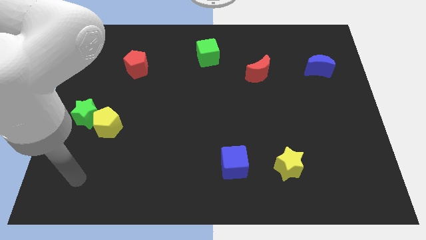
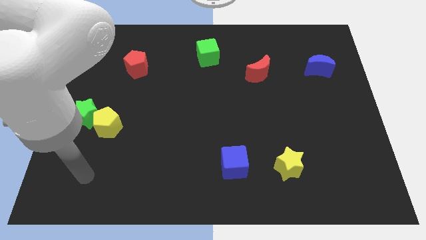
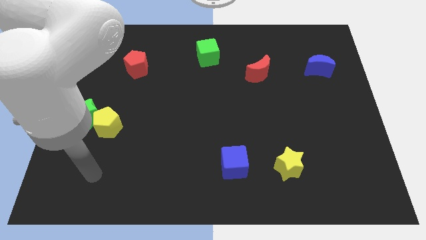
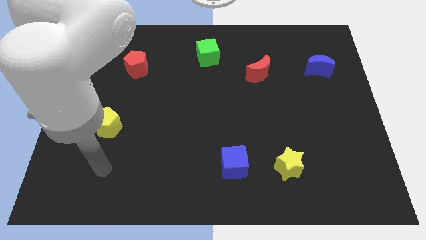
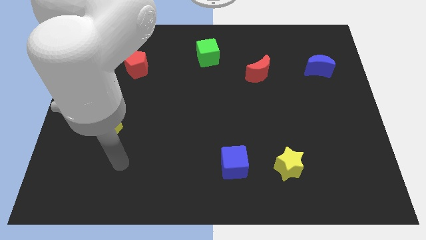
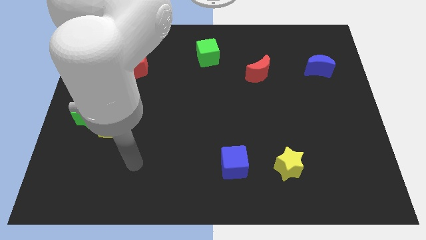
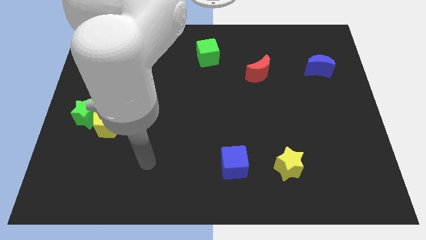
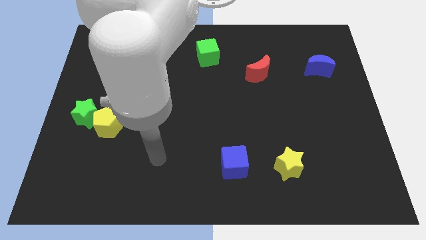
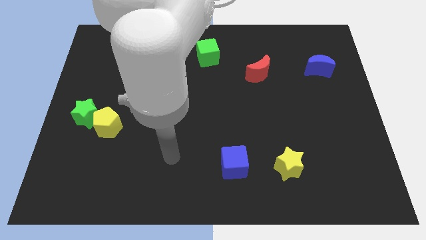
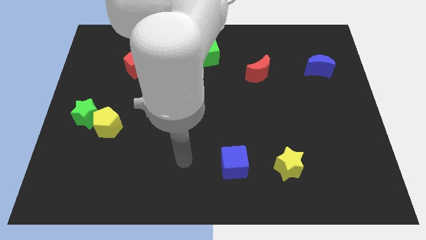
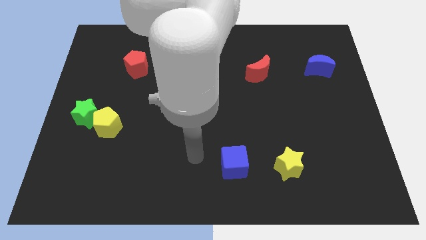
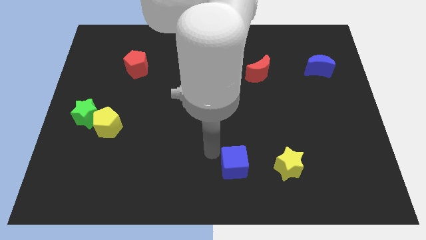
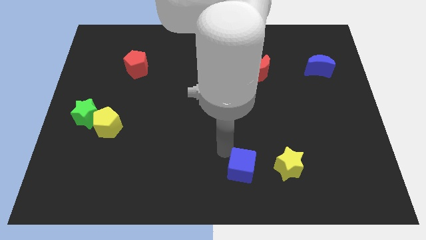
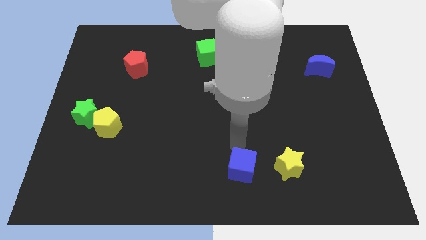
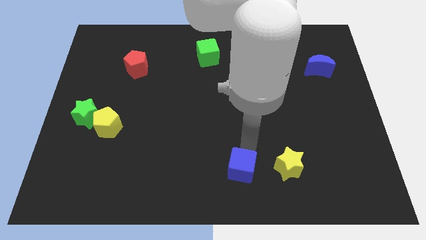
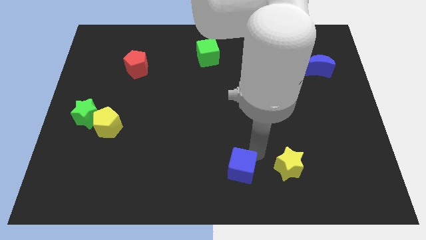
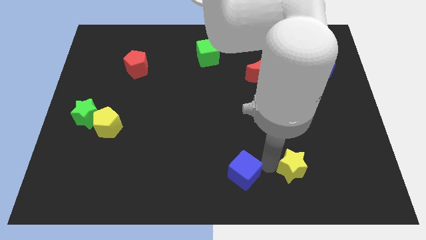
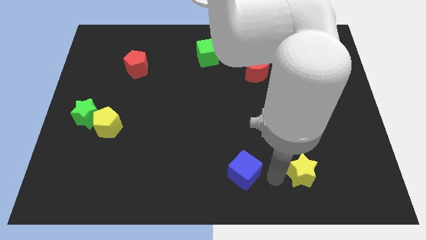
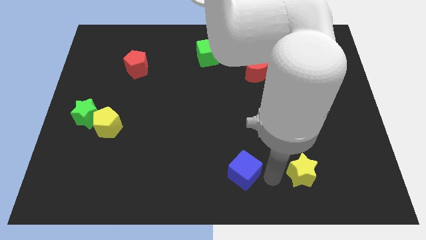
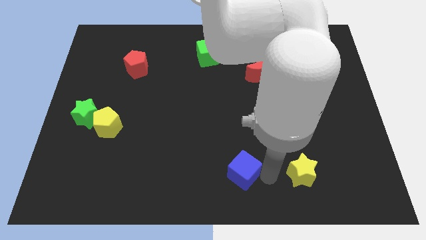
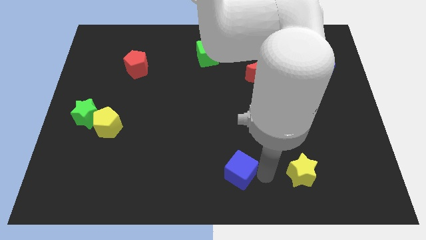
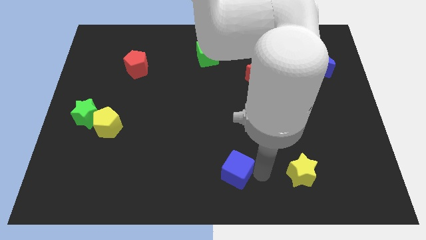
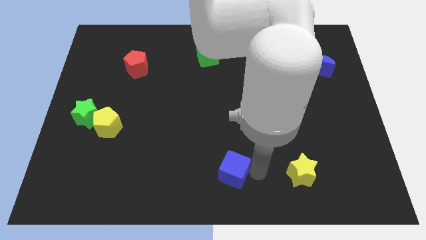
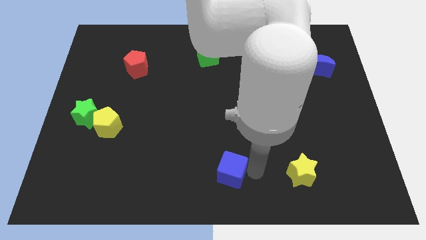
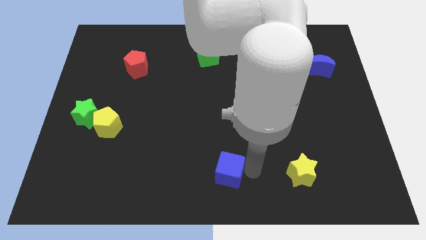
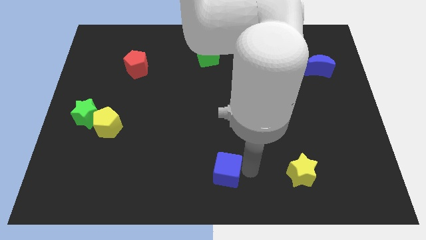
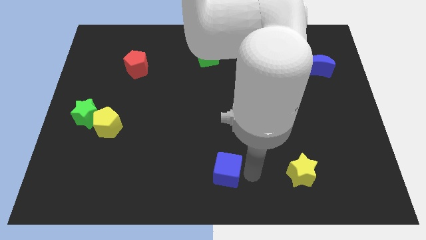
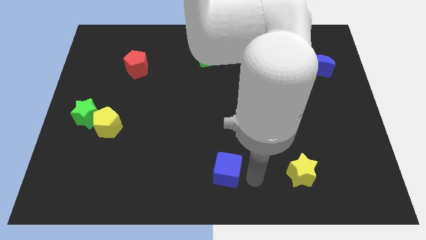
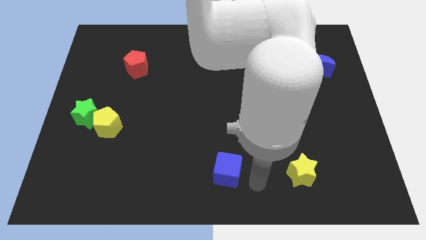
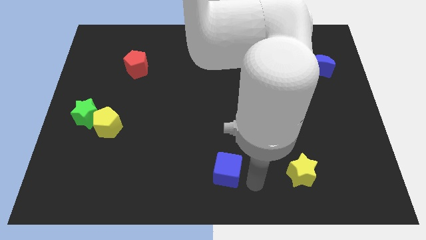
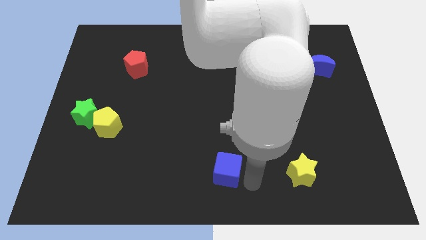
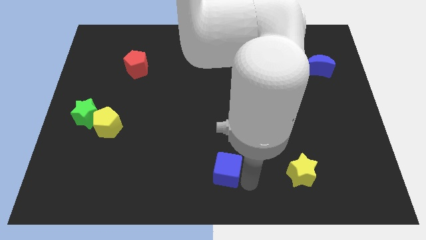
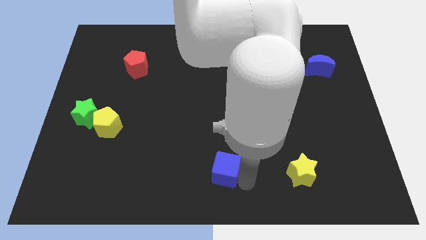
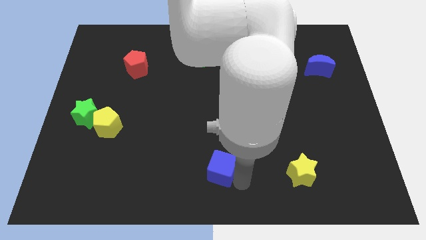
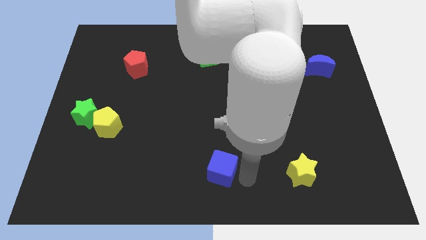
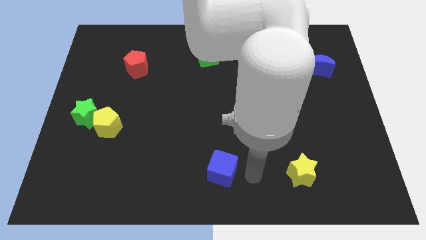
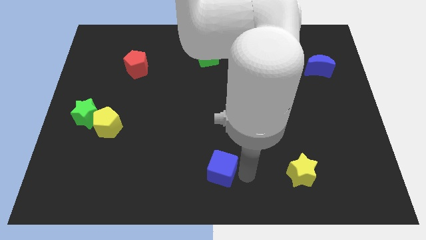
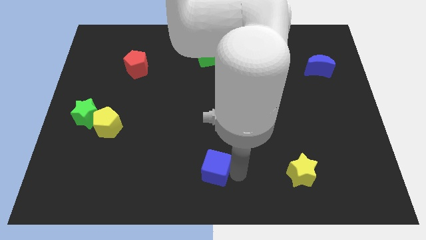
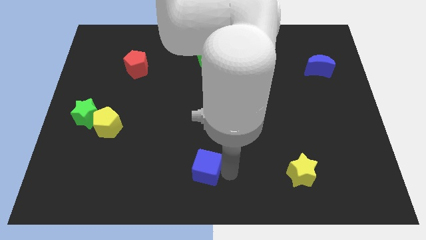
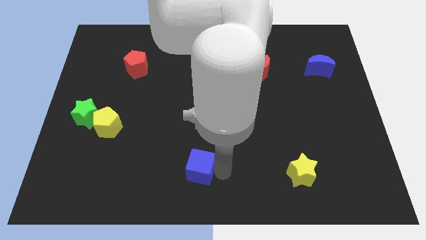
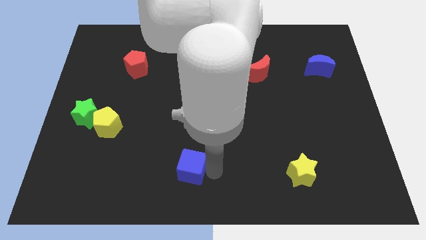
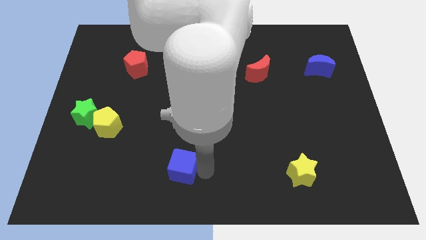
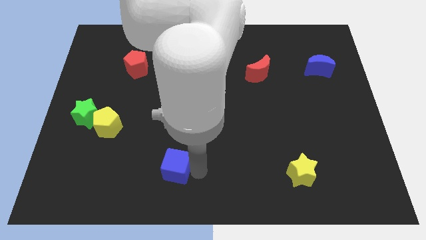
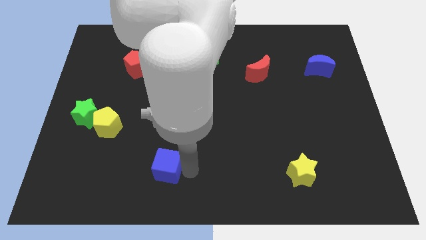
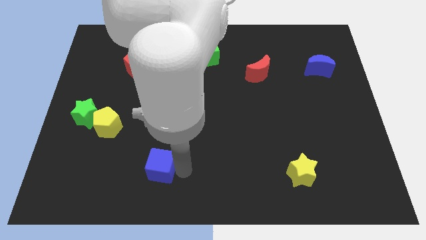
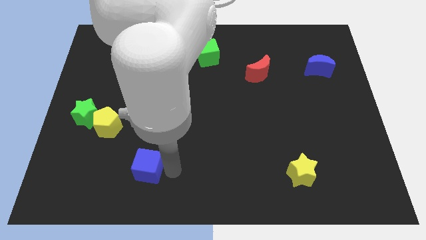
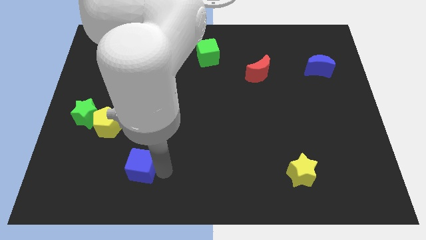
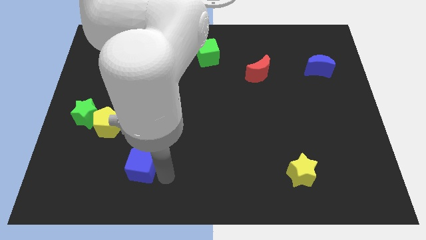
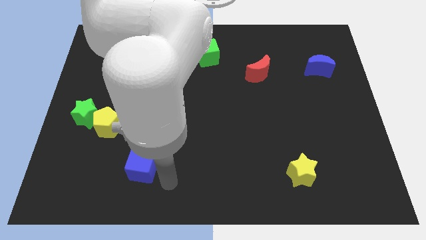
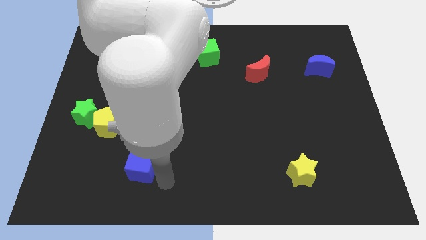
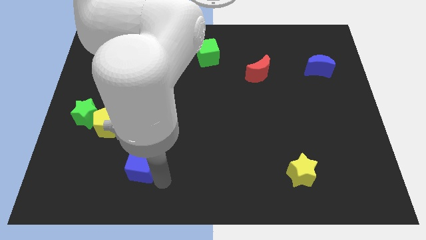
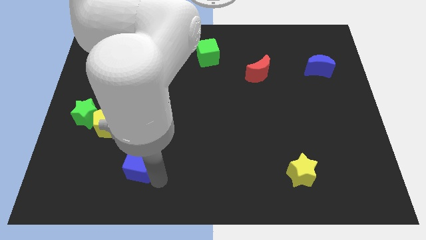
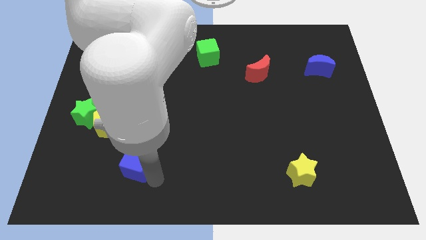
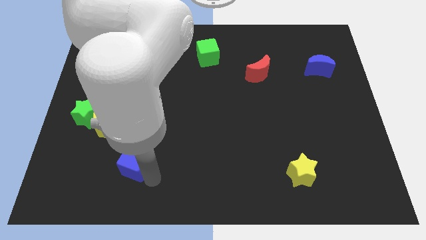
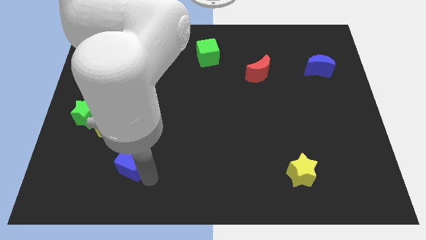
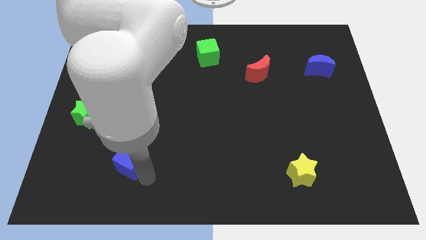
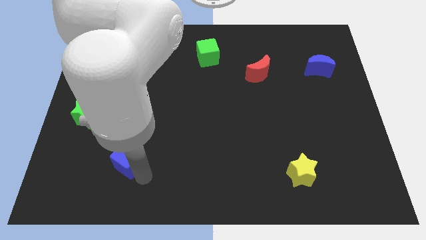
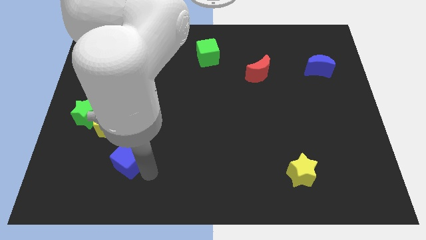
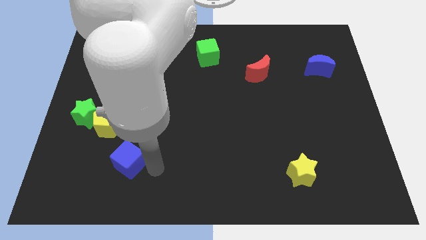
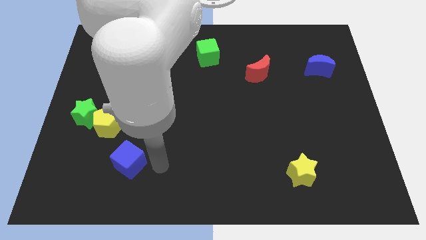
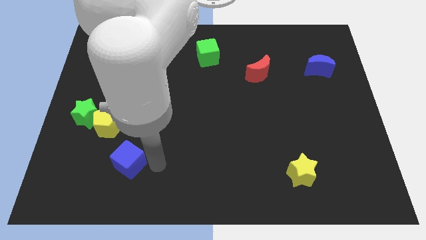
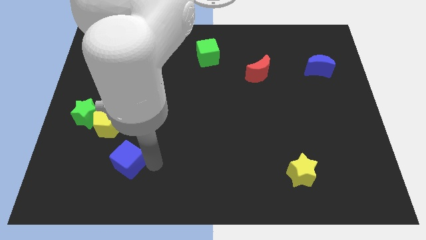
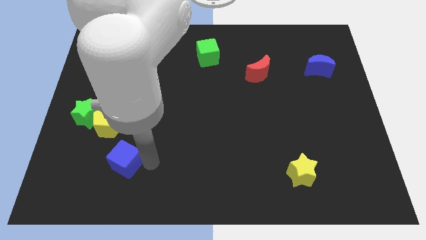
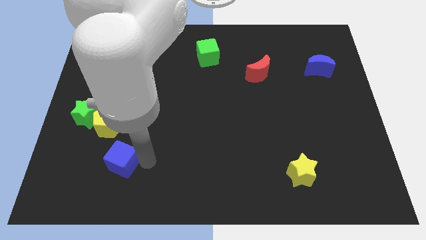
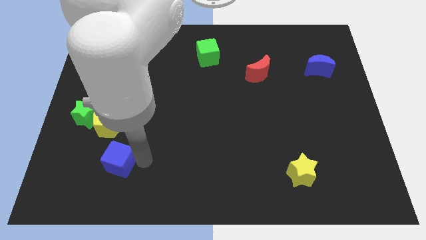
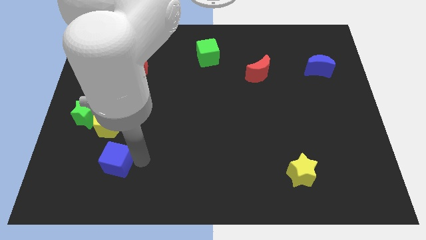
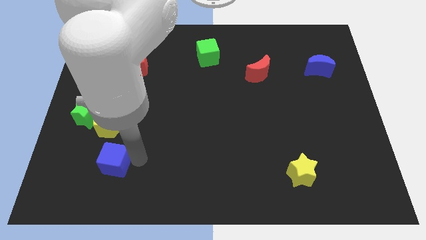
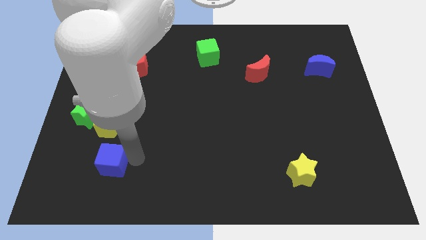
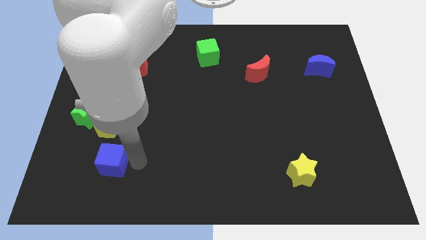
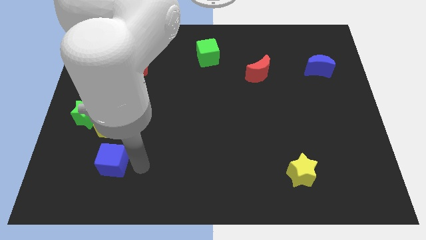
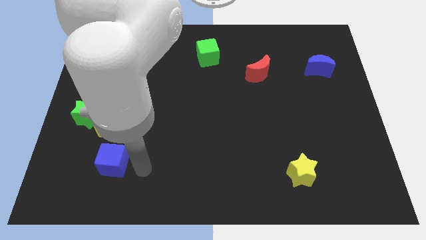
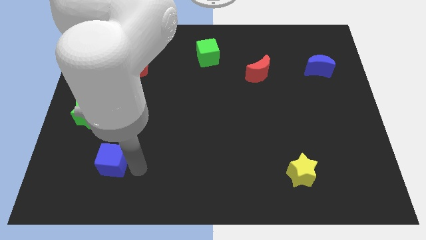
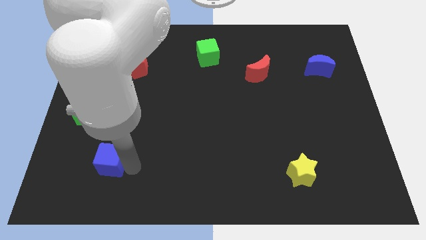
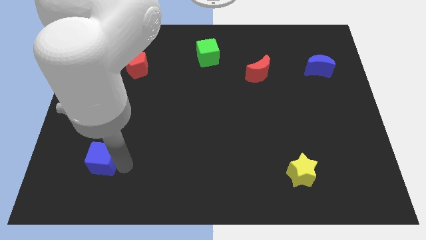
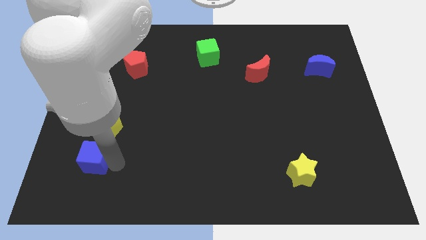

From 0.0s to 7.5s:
move the blue cube to the bottom of the green star

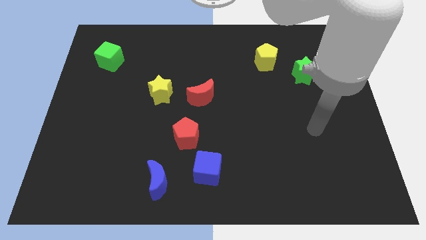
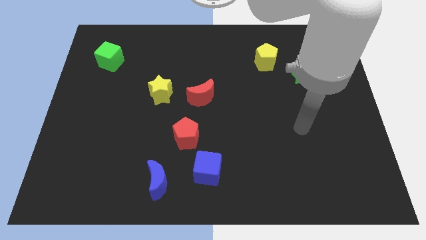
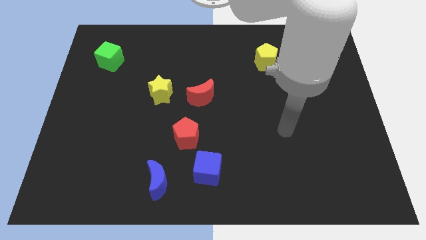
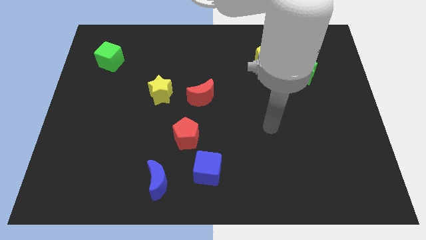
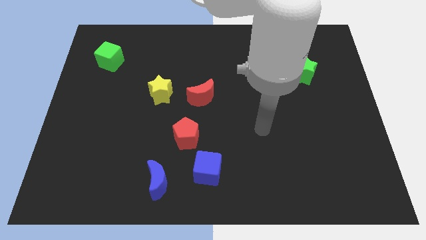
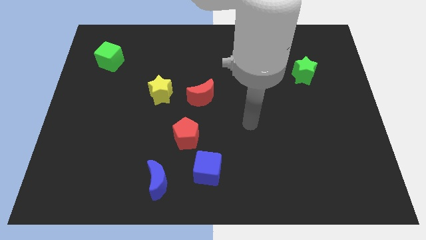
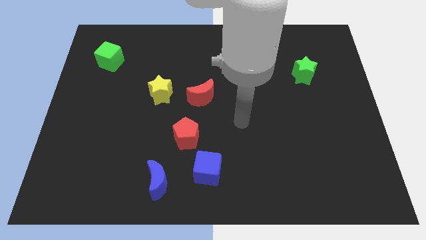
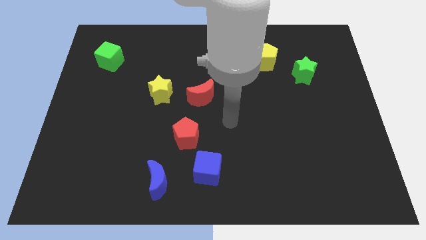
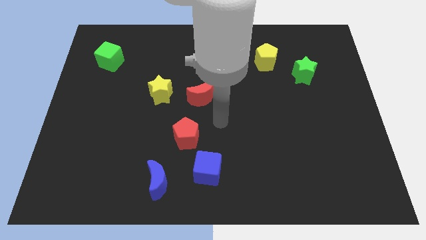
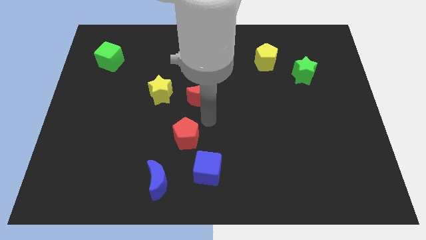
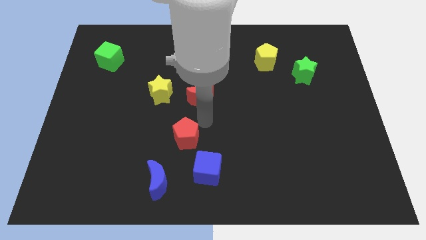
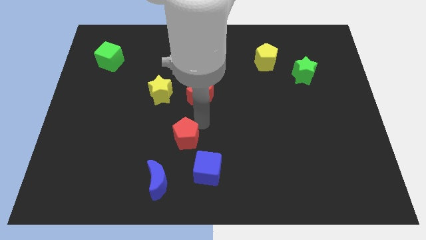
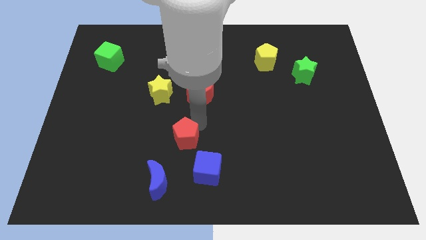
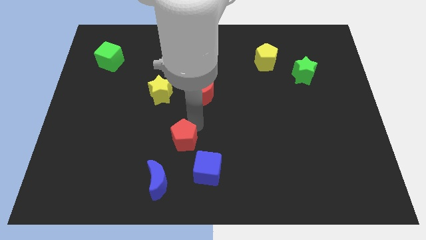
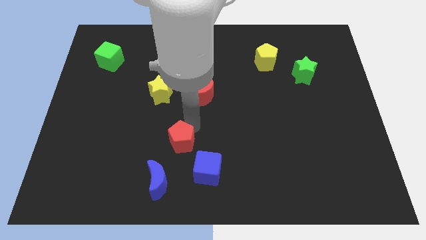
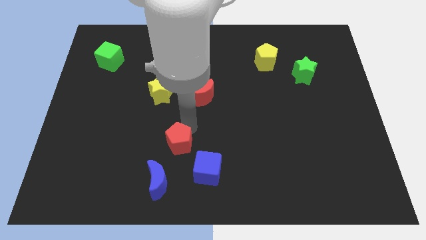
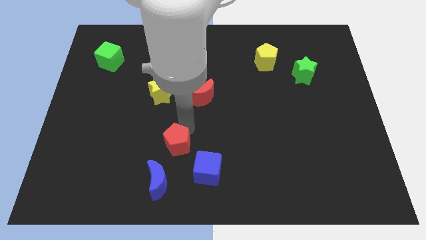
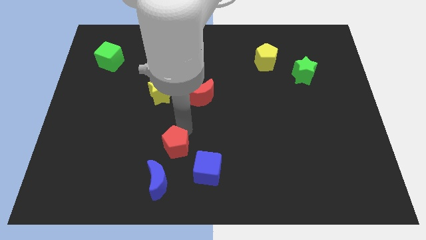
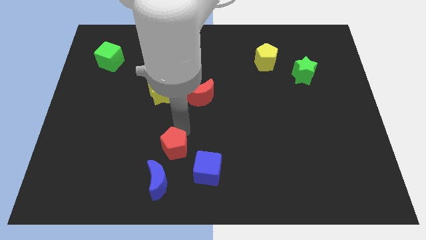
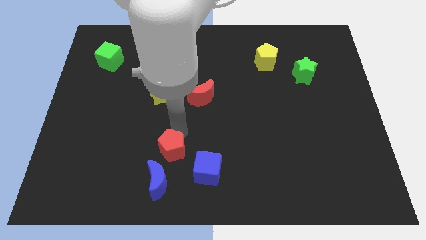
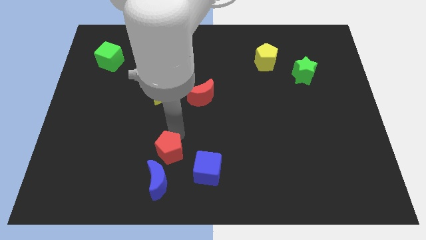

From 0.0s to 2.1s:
slide the red pentagon just left of the blue cube
